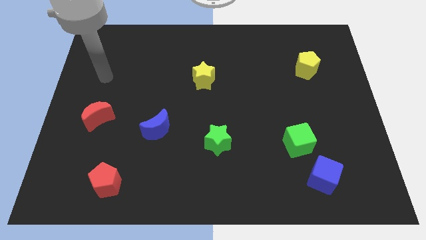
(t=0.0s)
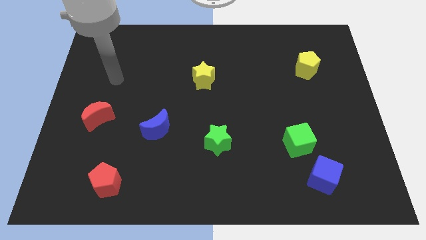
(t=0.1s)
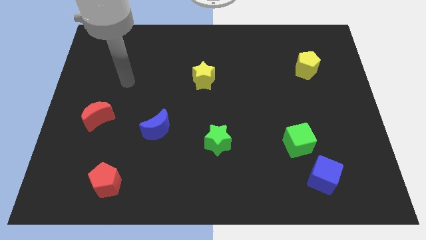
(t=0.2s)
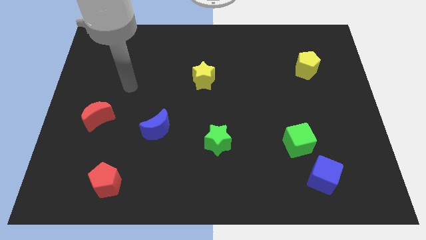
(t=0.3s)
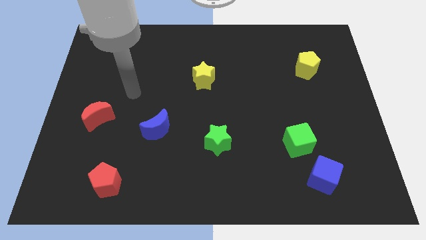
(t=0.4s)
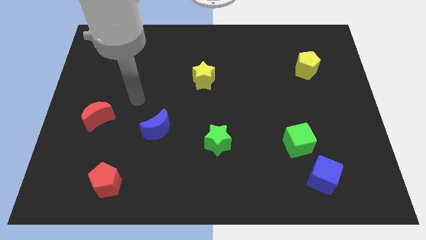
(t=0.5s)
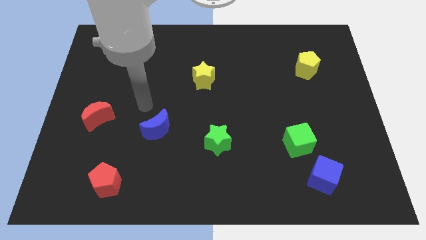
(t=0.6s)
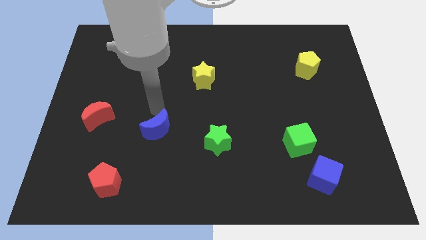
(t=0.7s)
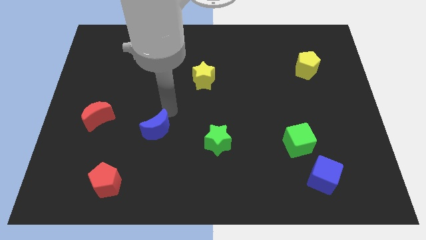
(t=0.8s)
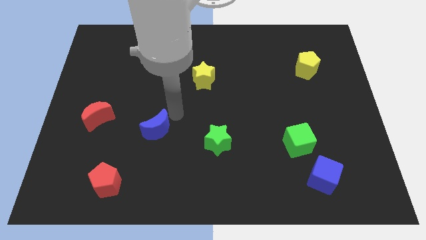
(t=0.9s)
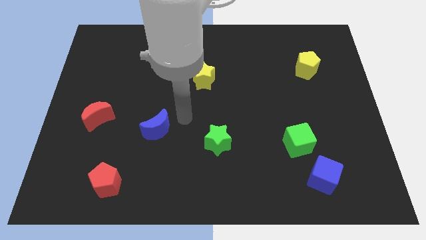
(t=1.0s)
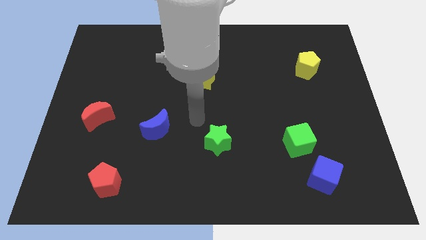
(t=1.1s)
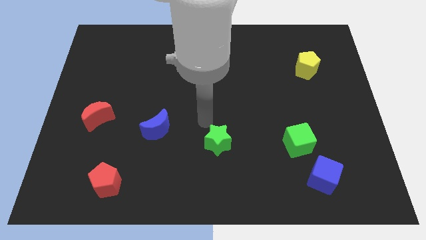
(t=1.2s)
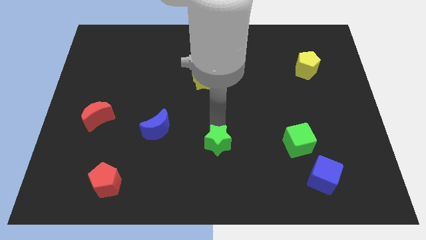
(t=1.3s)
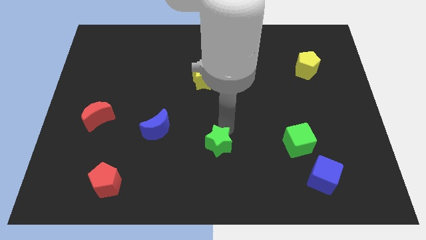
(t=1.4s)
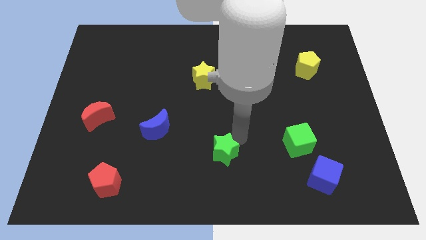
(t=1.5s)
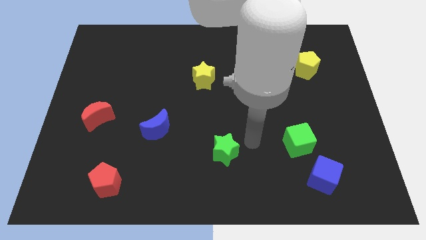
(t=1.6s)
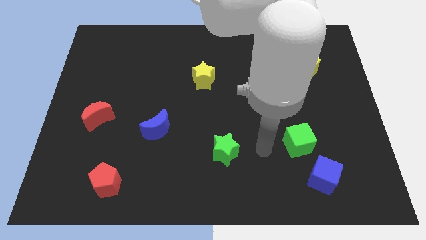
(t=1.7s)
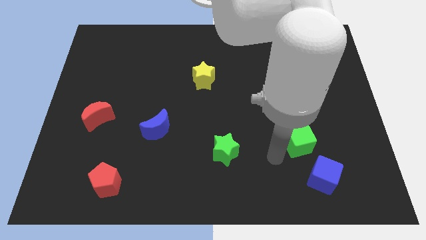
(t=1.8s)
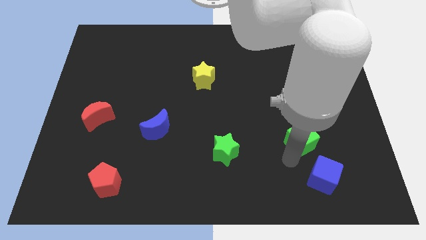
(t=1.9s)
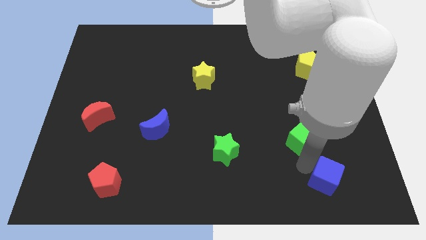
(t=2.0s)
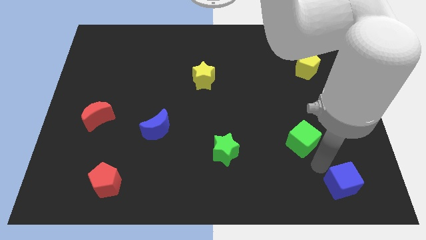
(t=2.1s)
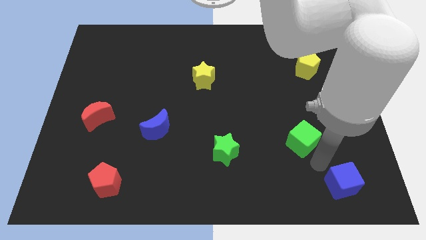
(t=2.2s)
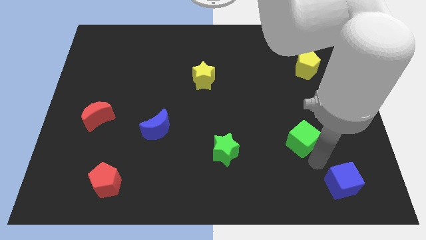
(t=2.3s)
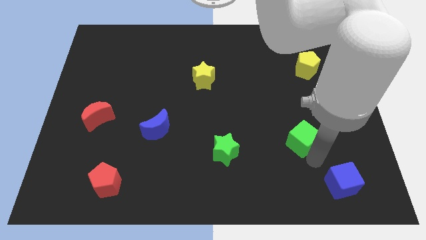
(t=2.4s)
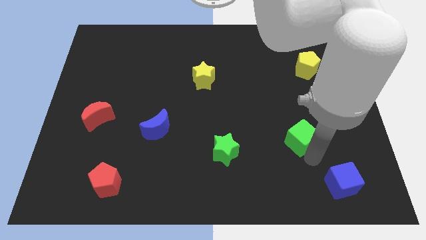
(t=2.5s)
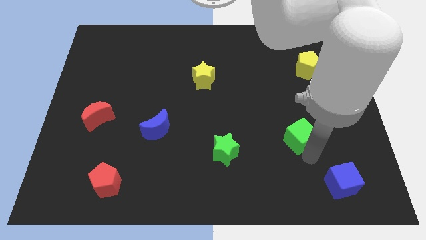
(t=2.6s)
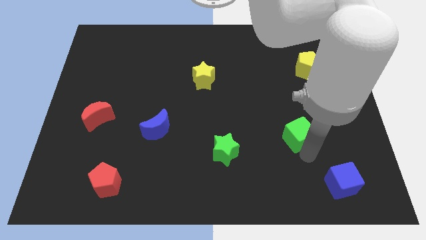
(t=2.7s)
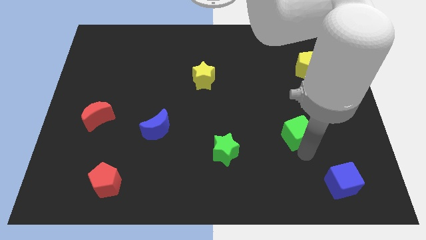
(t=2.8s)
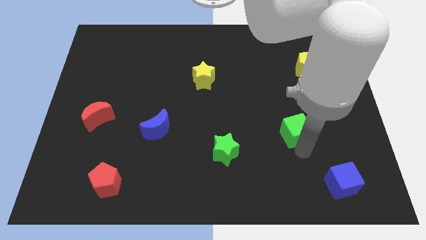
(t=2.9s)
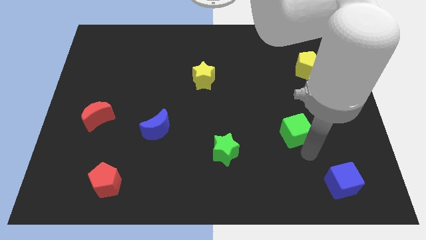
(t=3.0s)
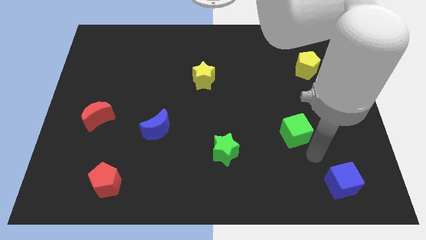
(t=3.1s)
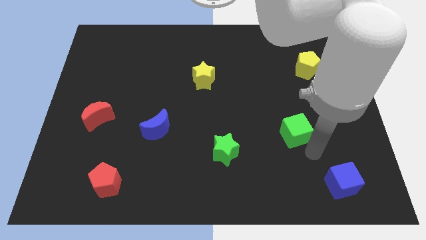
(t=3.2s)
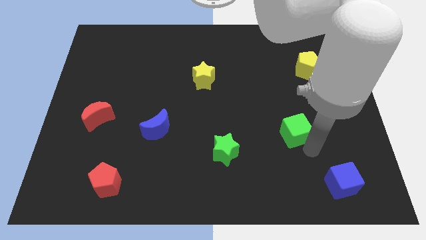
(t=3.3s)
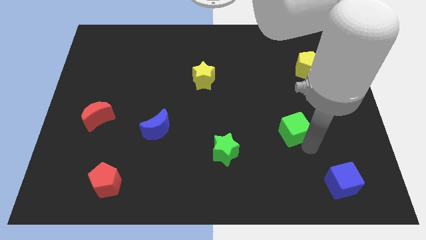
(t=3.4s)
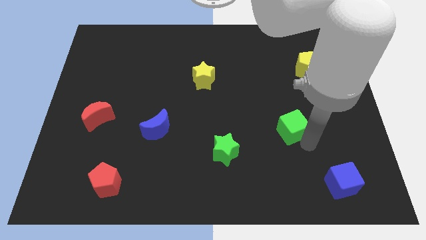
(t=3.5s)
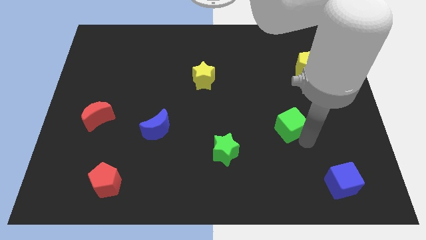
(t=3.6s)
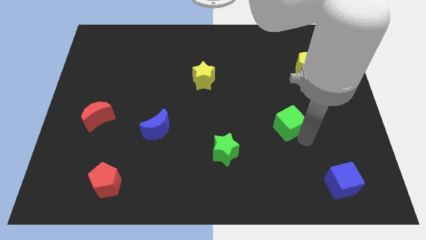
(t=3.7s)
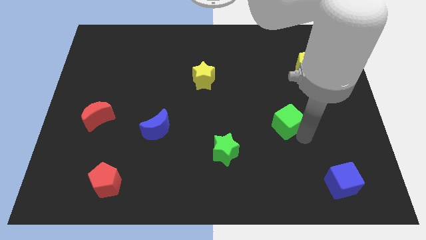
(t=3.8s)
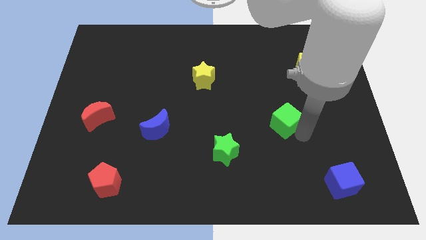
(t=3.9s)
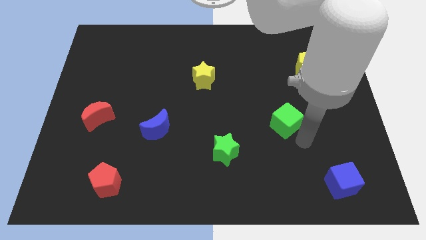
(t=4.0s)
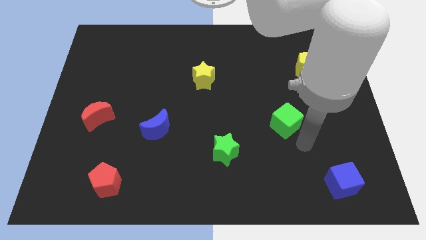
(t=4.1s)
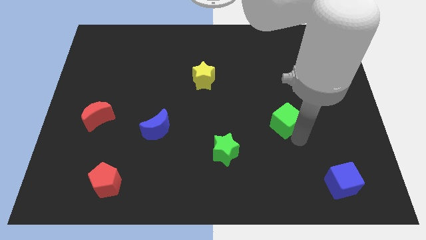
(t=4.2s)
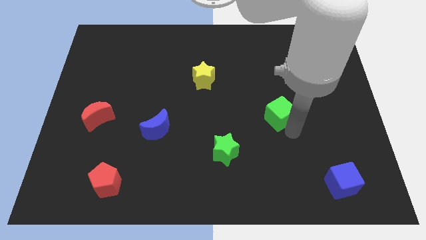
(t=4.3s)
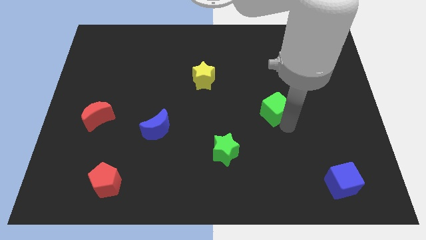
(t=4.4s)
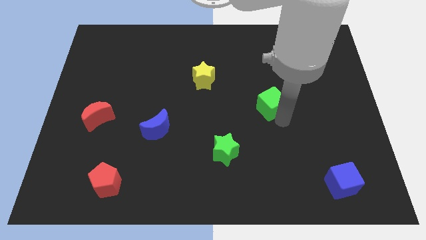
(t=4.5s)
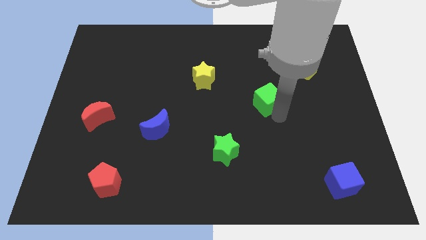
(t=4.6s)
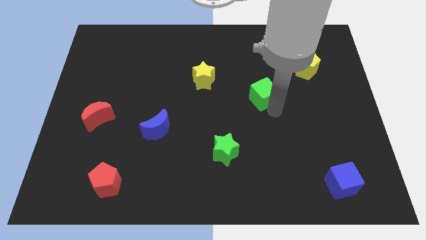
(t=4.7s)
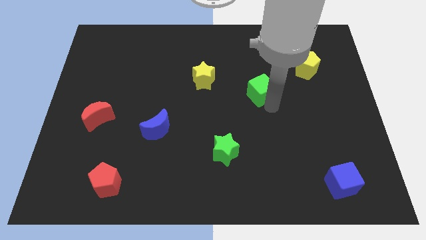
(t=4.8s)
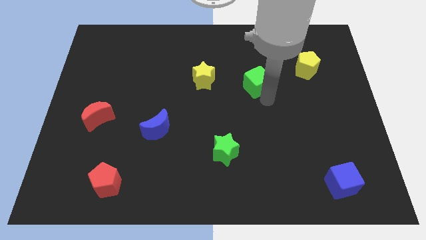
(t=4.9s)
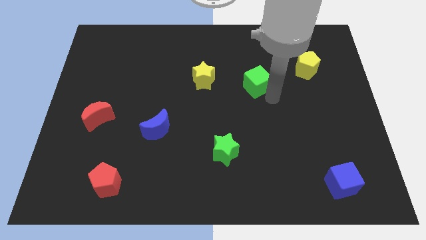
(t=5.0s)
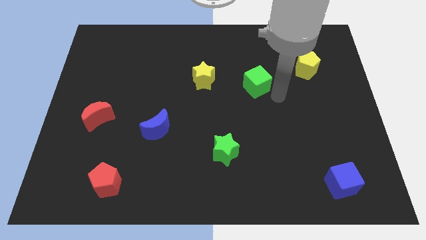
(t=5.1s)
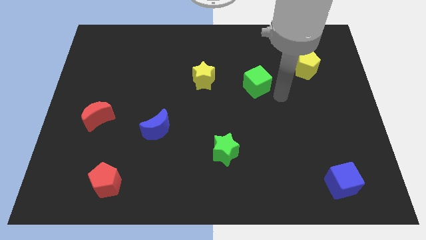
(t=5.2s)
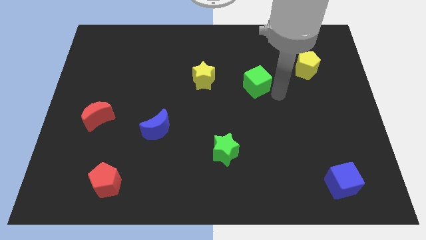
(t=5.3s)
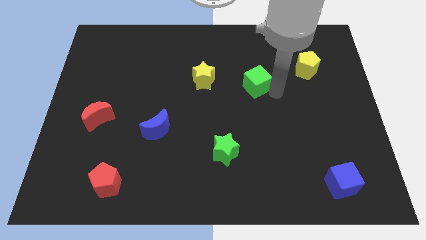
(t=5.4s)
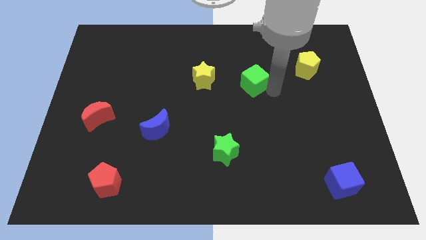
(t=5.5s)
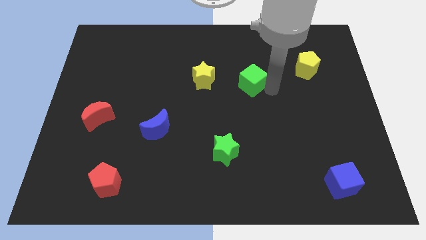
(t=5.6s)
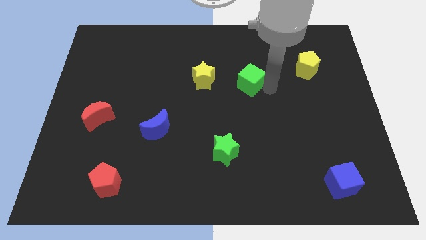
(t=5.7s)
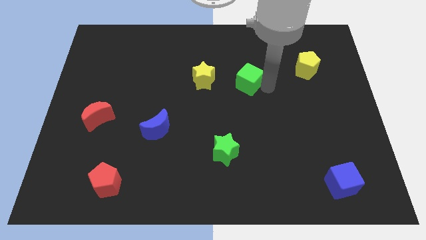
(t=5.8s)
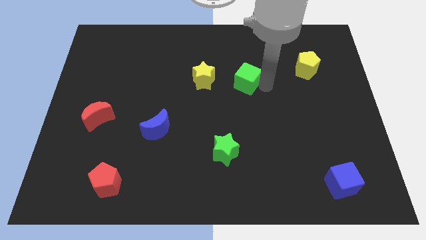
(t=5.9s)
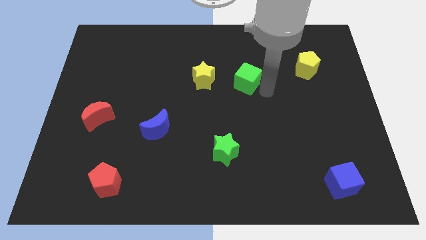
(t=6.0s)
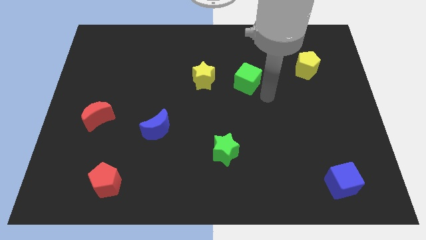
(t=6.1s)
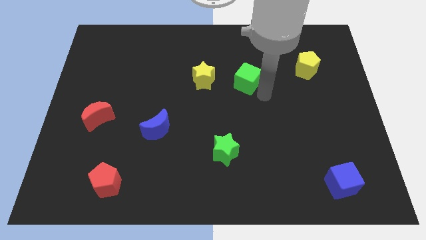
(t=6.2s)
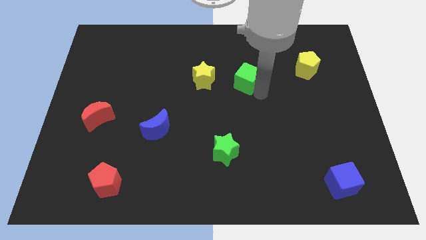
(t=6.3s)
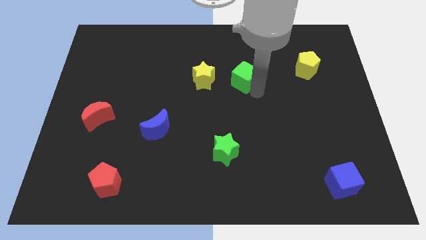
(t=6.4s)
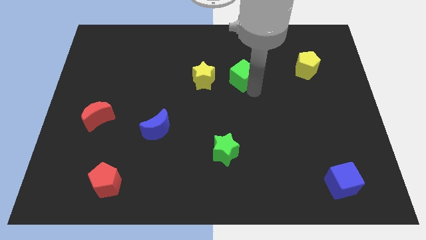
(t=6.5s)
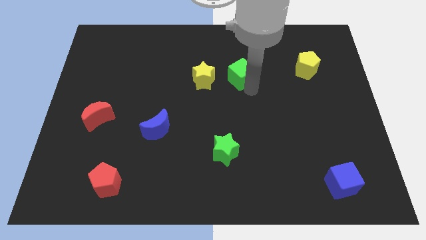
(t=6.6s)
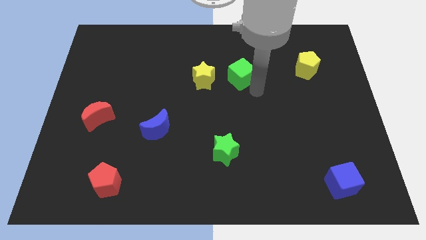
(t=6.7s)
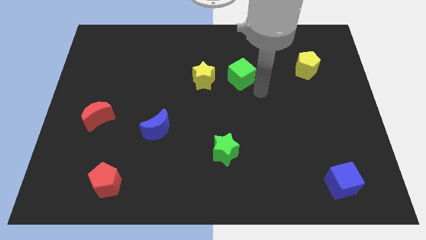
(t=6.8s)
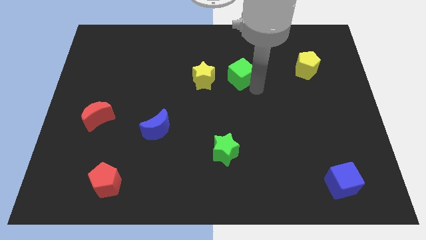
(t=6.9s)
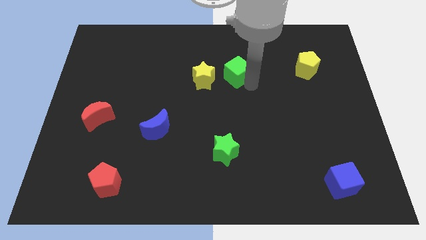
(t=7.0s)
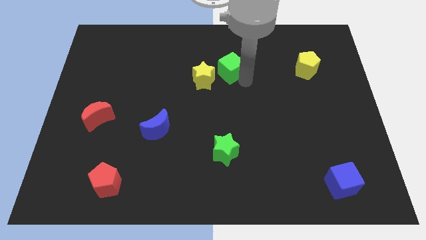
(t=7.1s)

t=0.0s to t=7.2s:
push the green cube to the top right side of the yellow star
